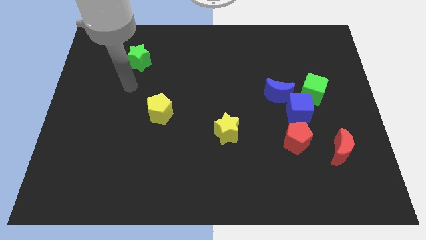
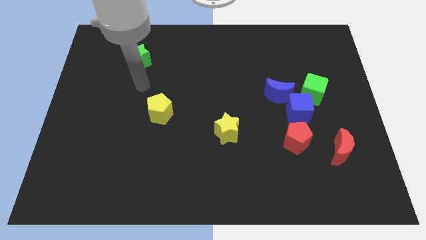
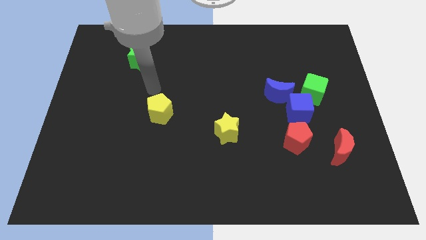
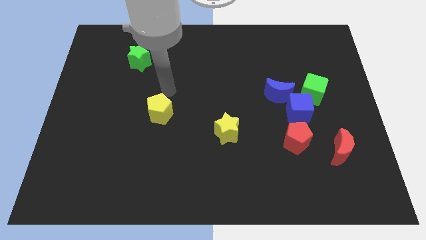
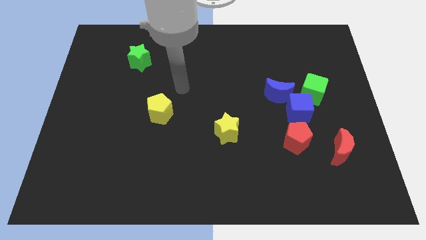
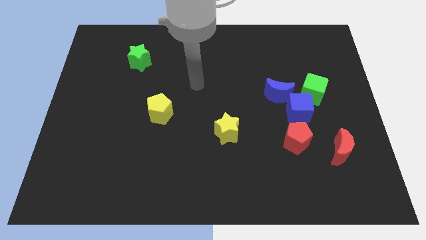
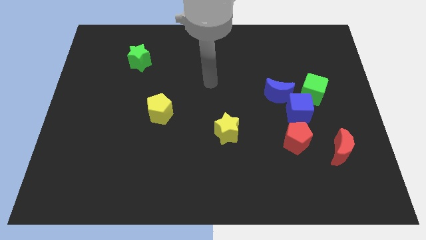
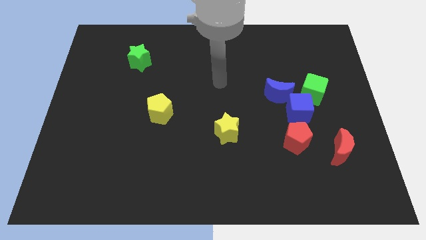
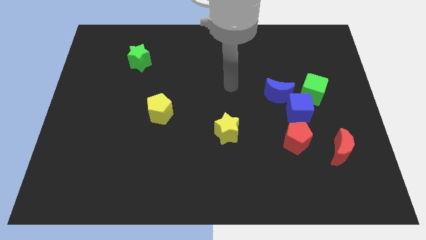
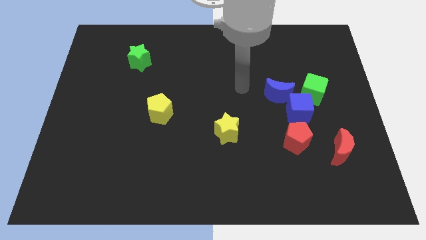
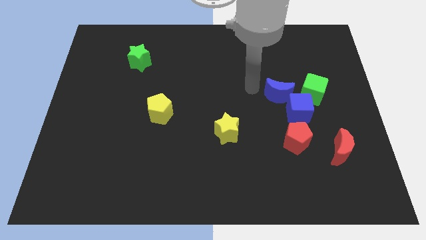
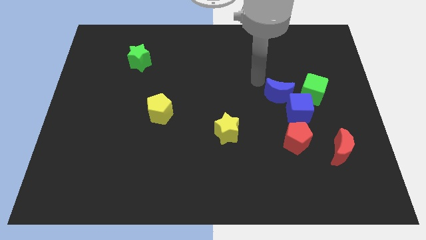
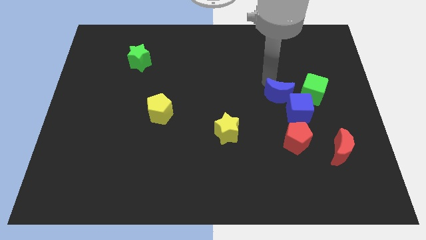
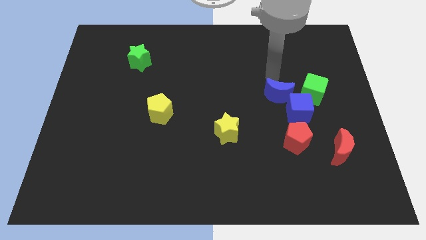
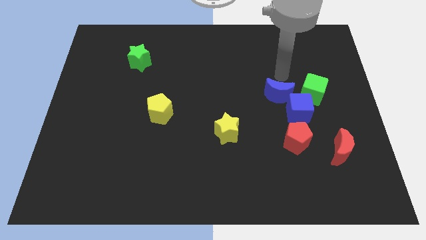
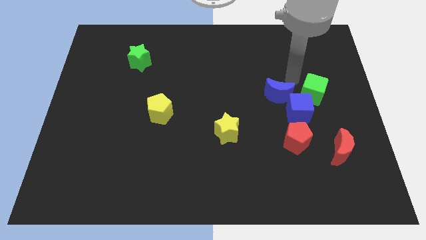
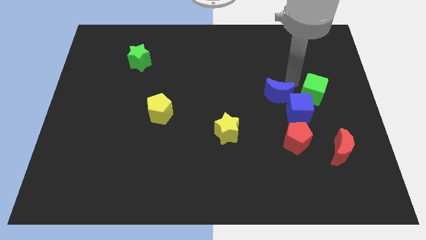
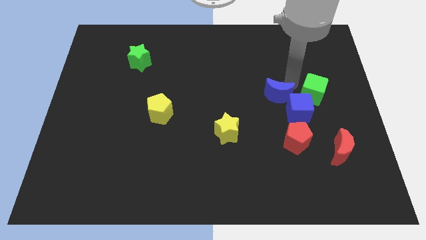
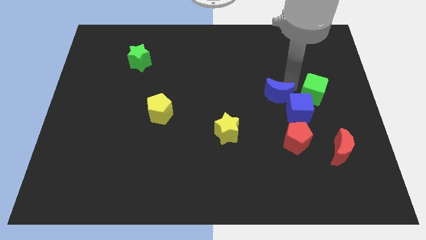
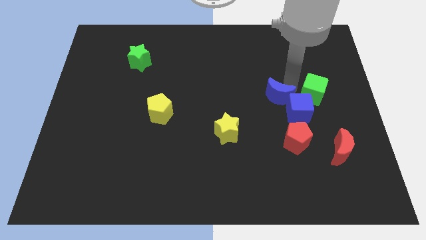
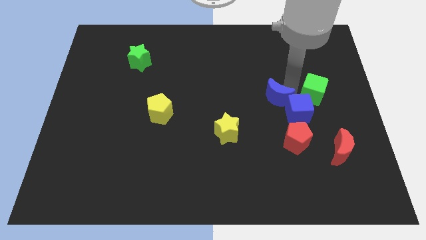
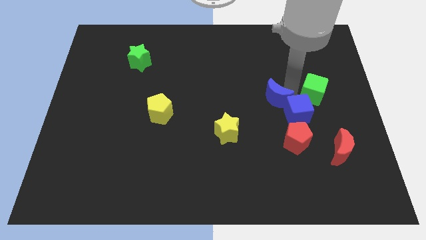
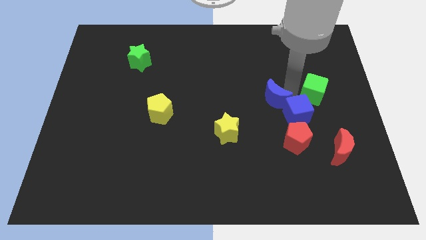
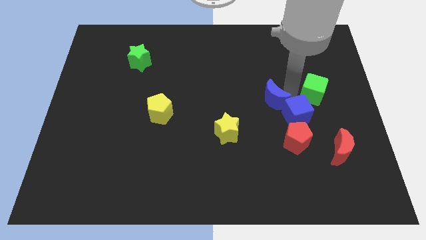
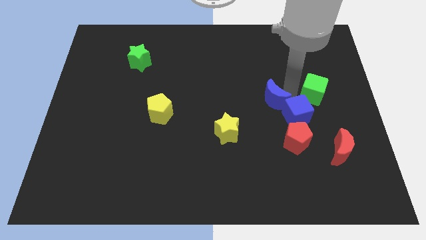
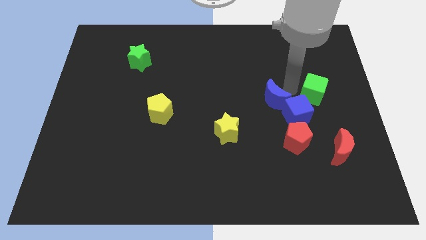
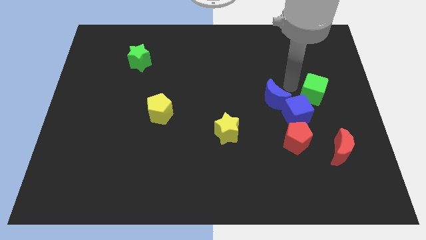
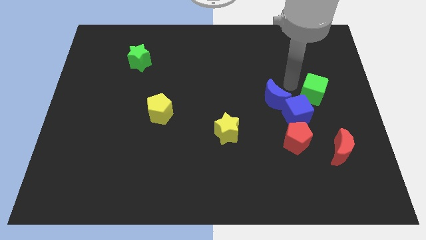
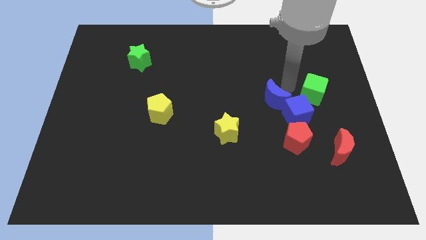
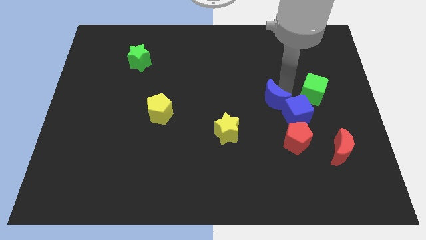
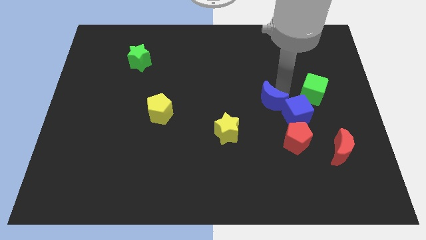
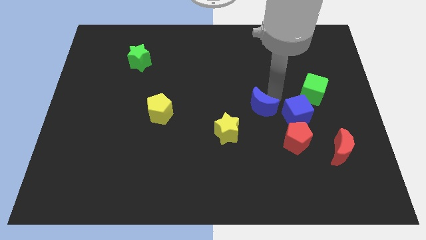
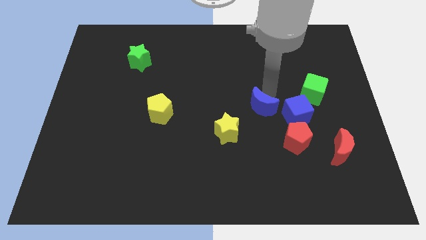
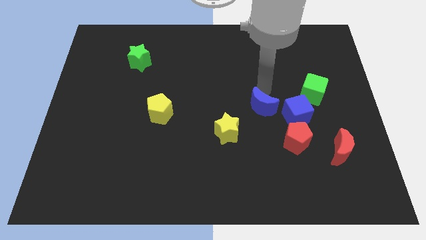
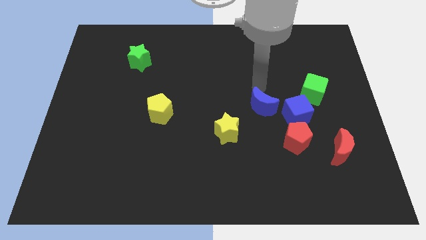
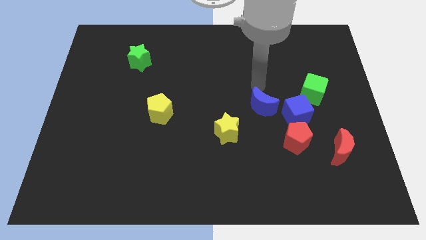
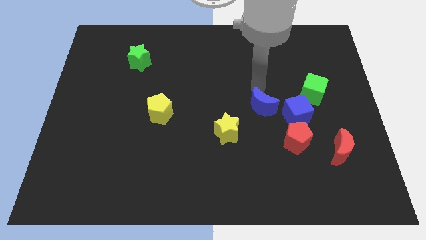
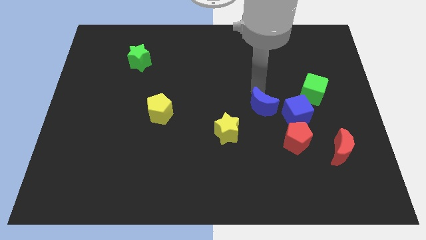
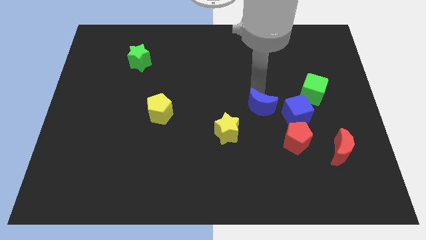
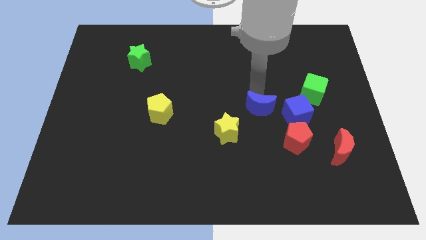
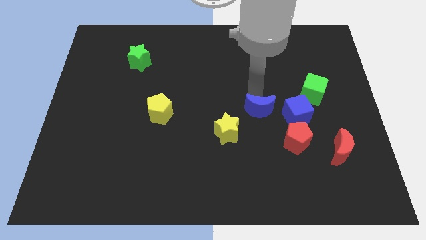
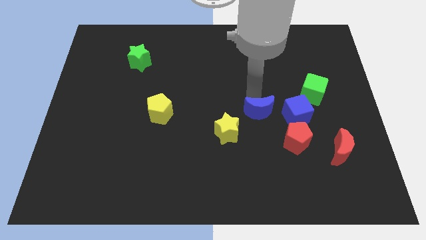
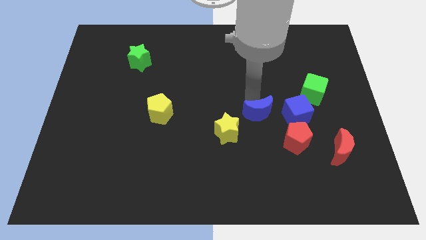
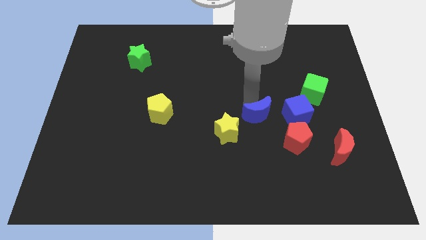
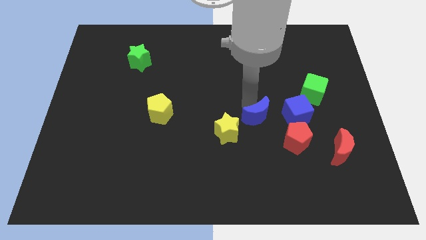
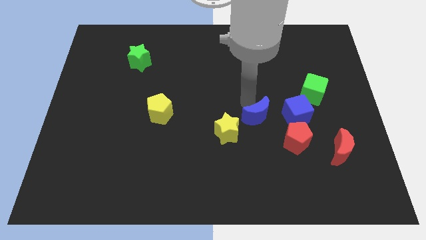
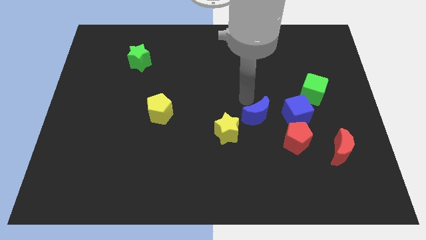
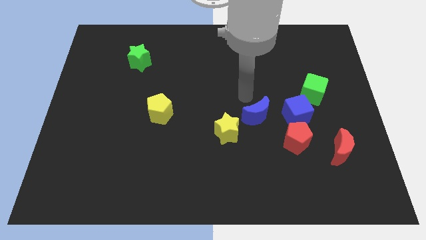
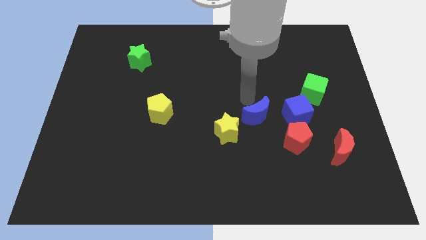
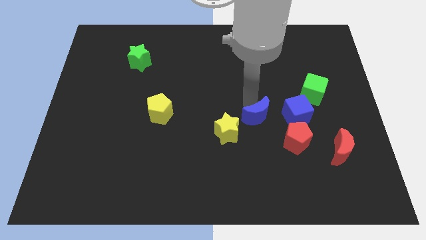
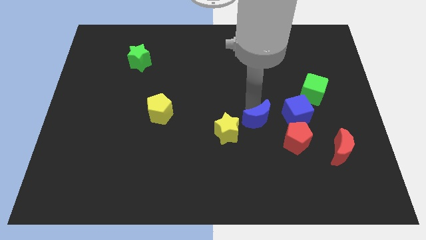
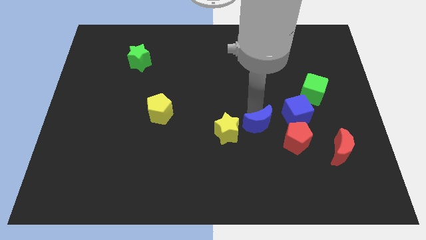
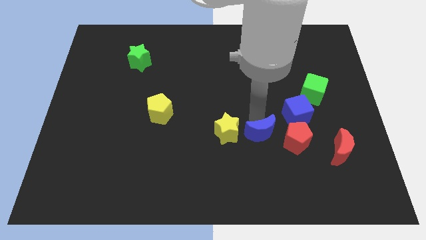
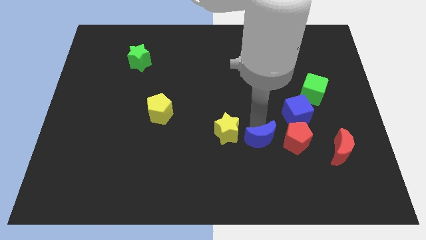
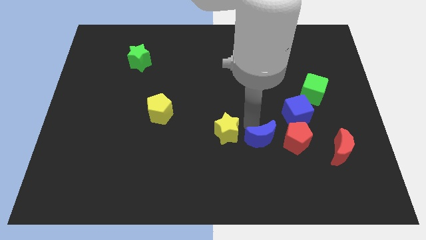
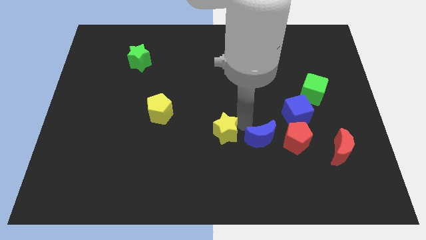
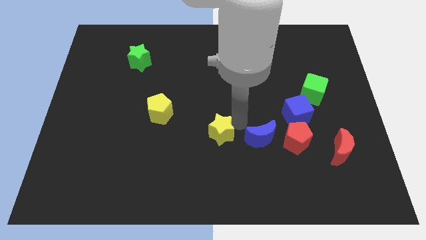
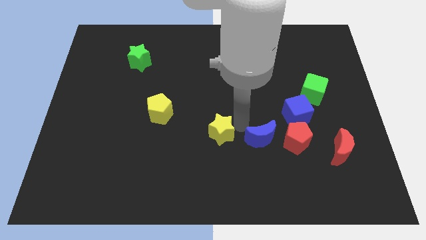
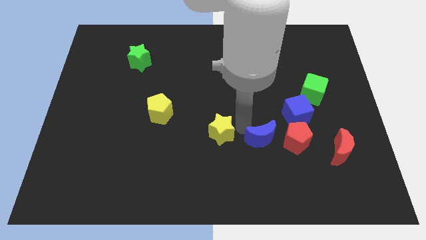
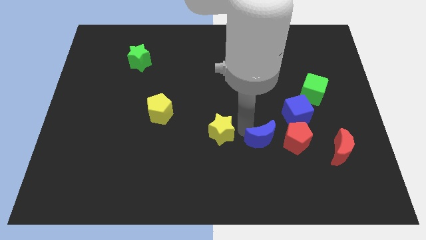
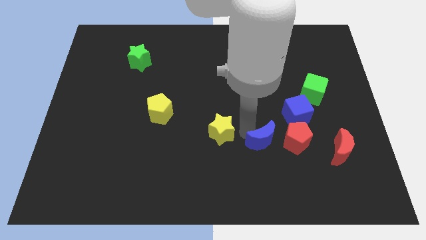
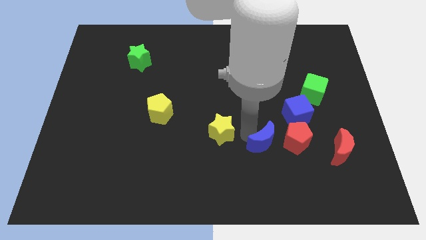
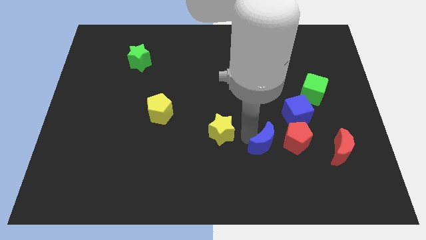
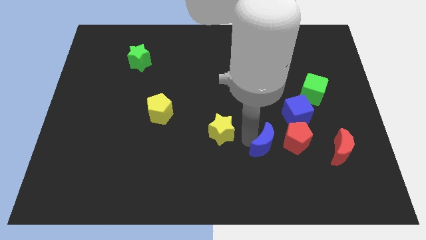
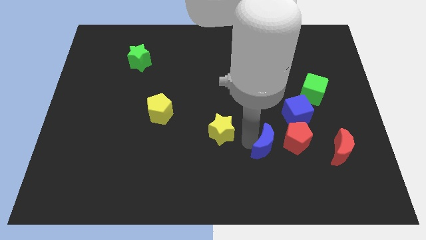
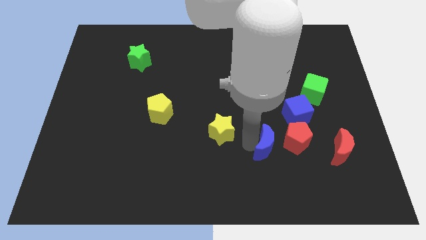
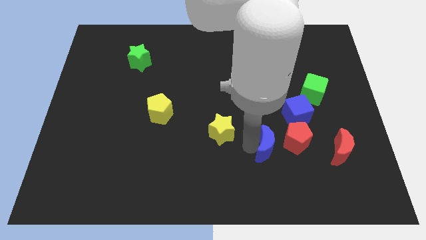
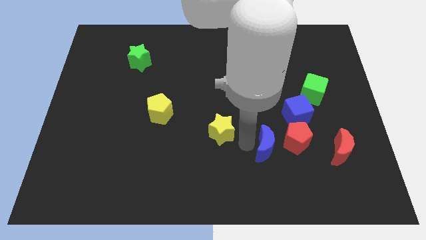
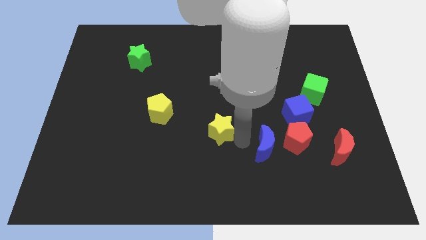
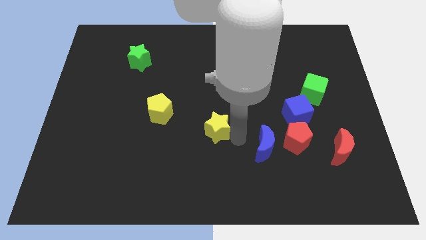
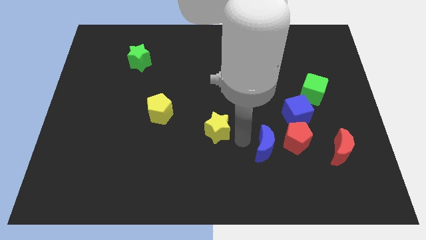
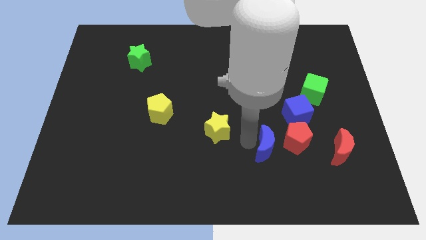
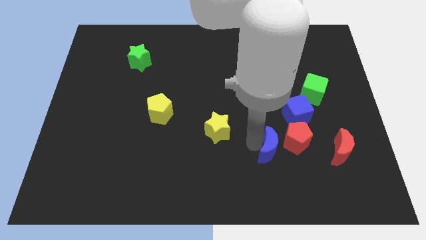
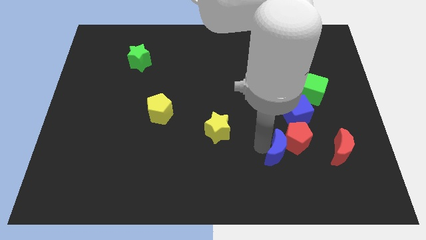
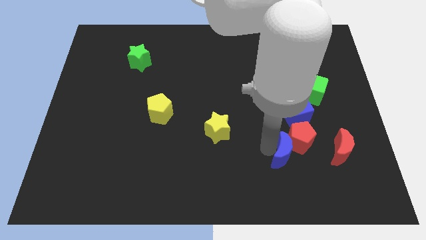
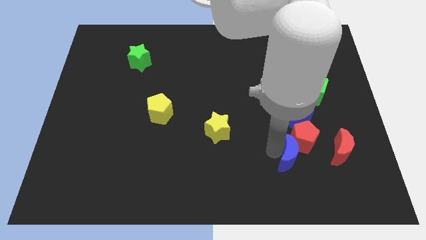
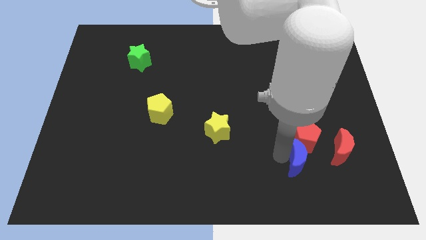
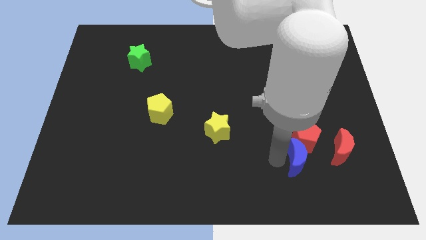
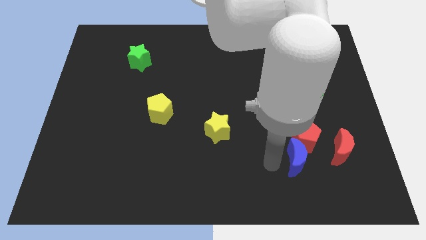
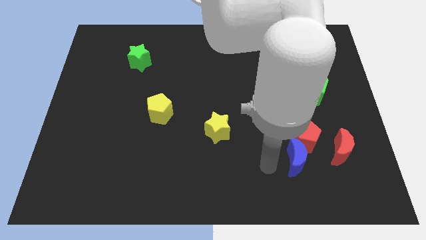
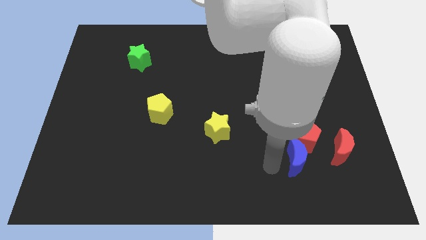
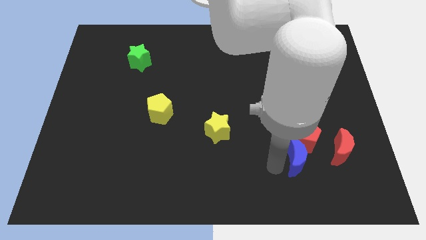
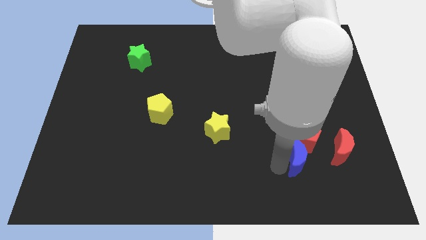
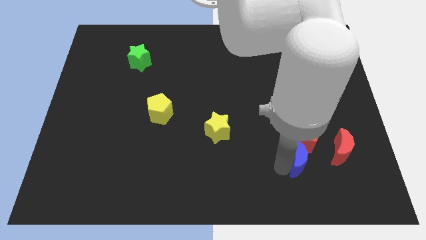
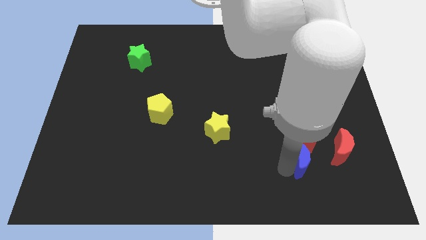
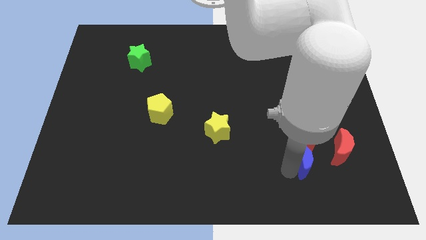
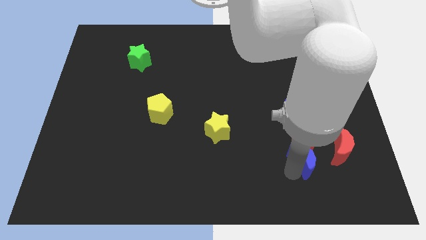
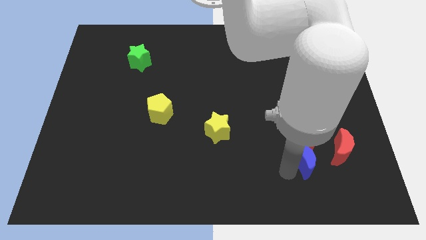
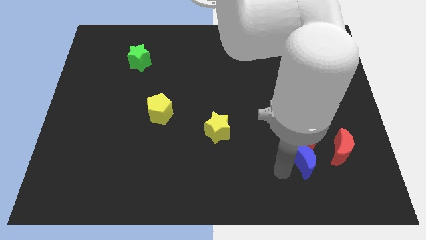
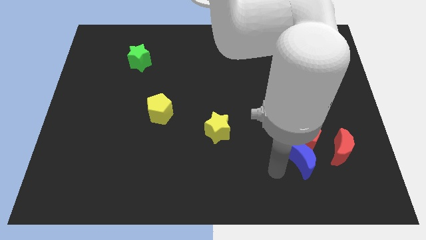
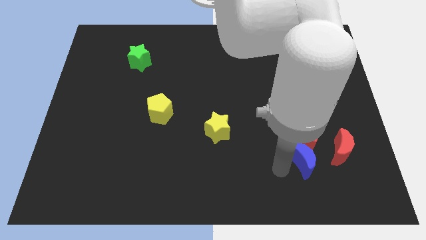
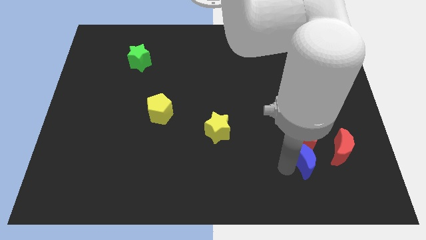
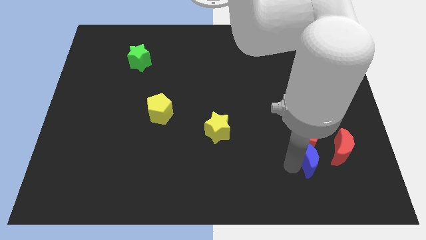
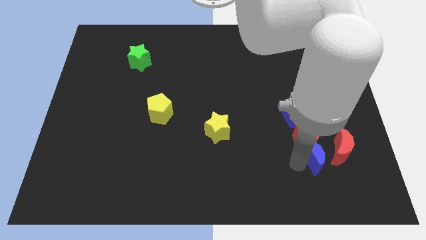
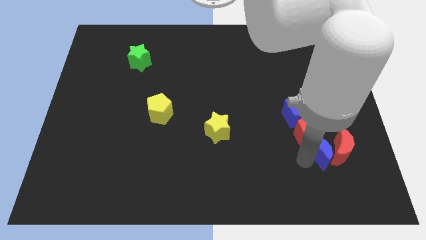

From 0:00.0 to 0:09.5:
move the blue moon close to the red moon
